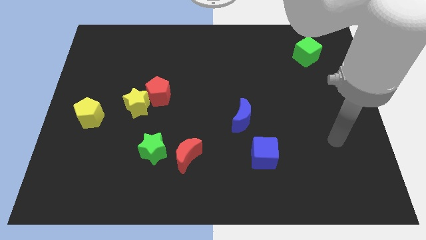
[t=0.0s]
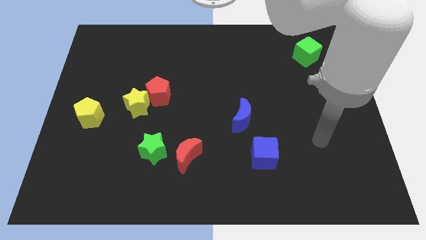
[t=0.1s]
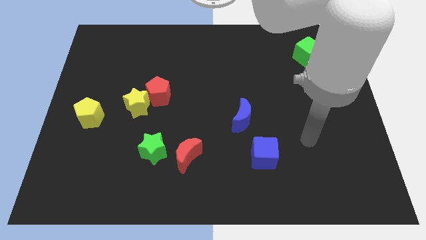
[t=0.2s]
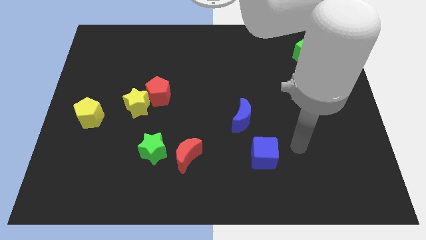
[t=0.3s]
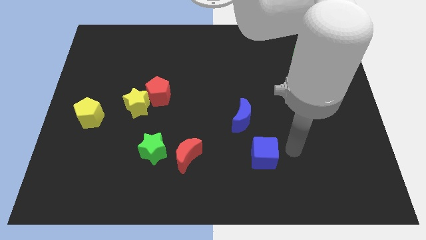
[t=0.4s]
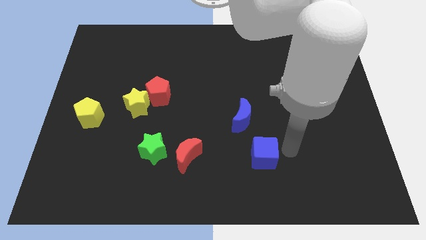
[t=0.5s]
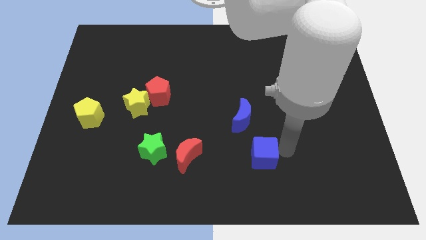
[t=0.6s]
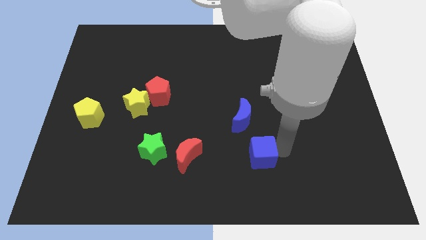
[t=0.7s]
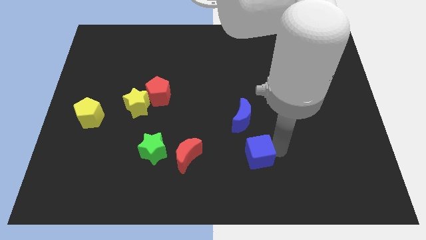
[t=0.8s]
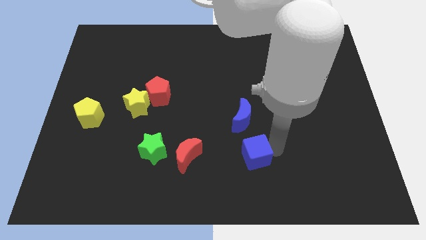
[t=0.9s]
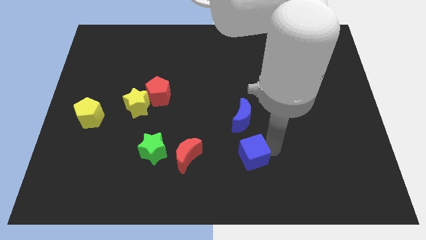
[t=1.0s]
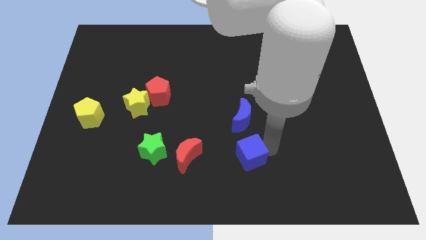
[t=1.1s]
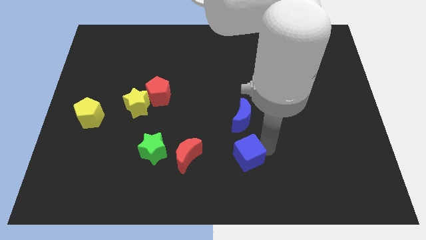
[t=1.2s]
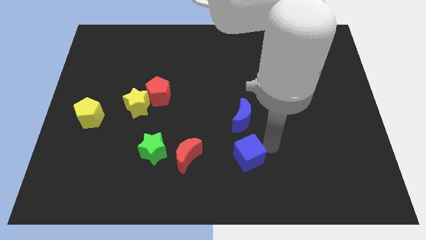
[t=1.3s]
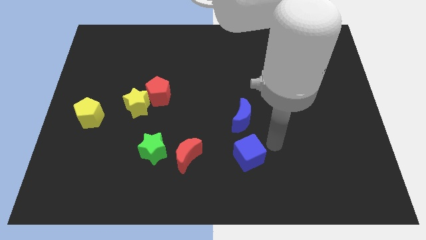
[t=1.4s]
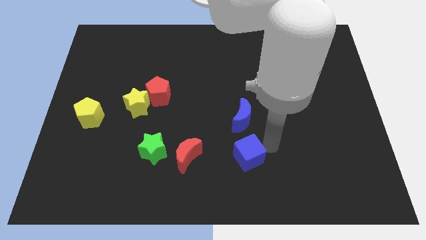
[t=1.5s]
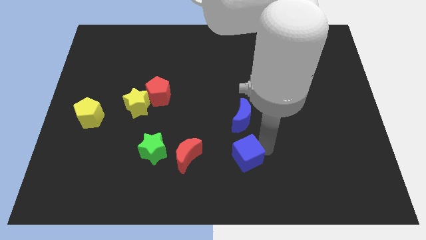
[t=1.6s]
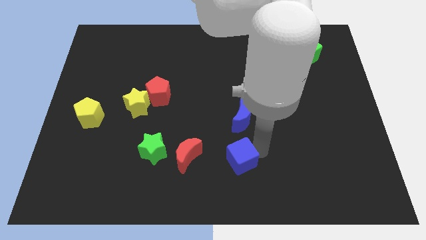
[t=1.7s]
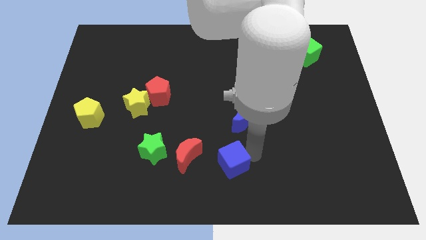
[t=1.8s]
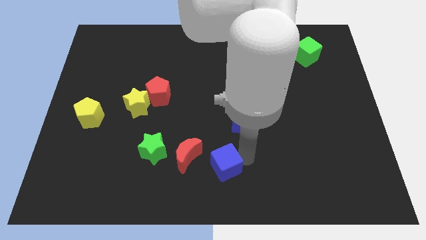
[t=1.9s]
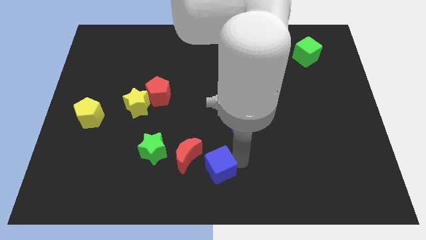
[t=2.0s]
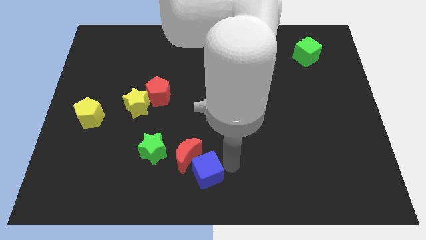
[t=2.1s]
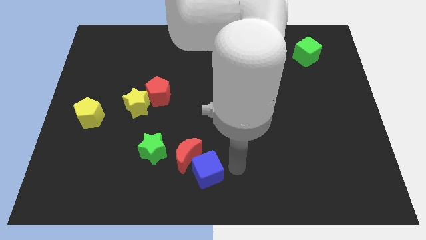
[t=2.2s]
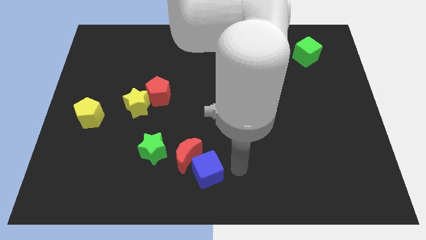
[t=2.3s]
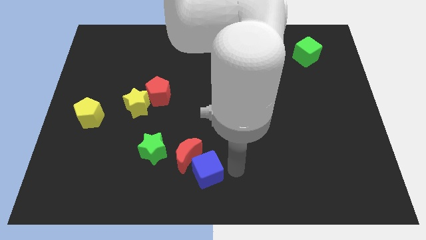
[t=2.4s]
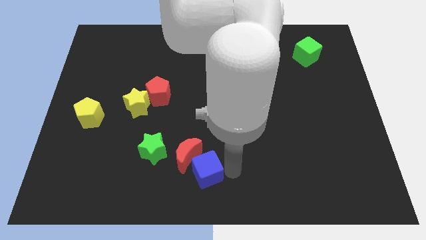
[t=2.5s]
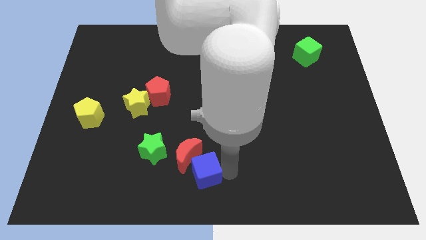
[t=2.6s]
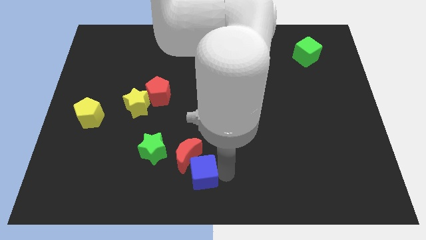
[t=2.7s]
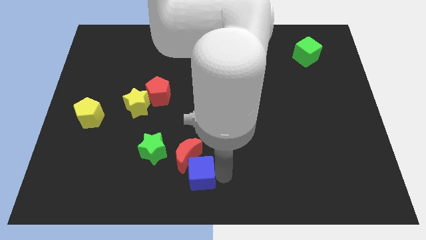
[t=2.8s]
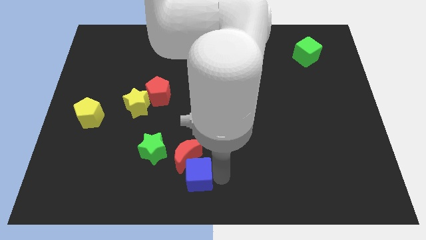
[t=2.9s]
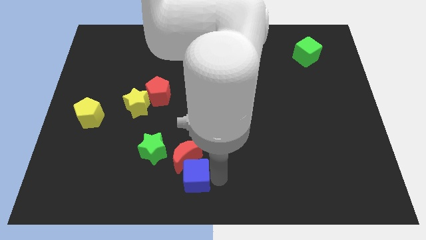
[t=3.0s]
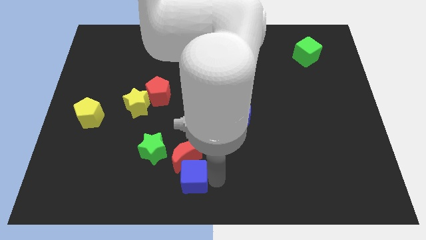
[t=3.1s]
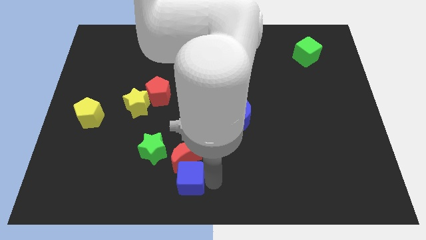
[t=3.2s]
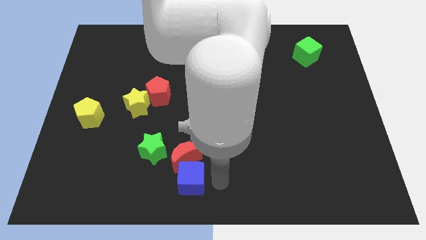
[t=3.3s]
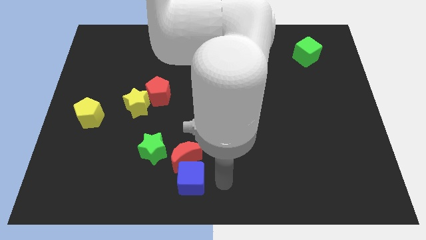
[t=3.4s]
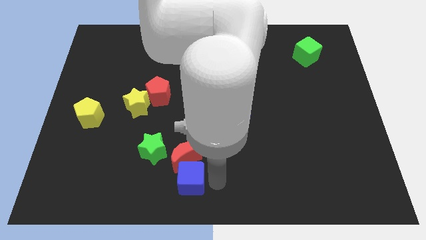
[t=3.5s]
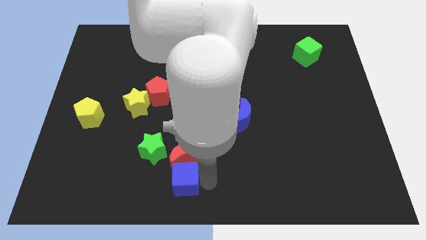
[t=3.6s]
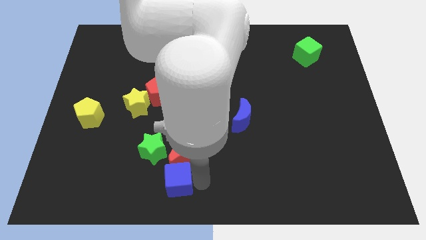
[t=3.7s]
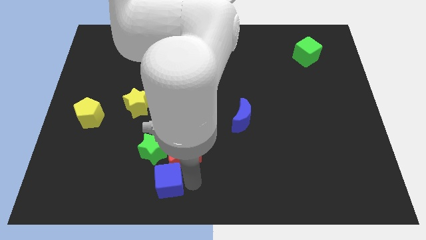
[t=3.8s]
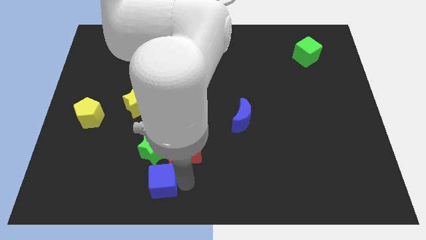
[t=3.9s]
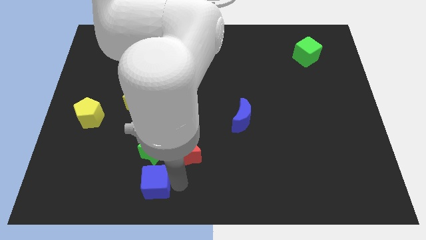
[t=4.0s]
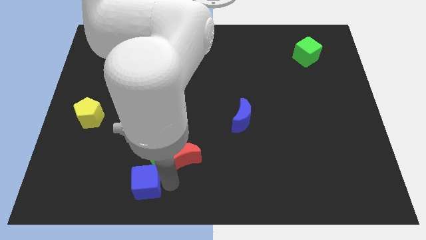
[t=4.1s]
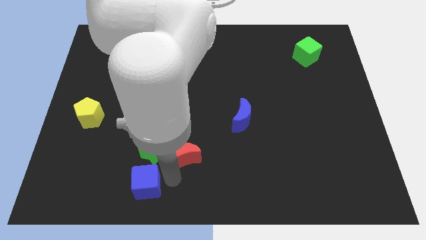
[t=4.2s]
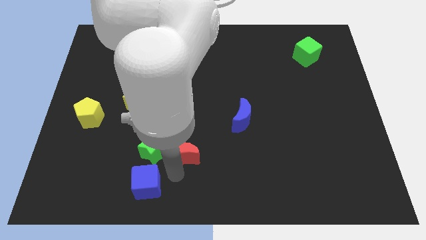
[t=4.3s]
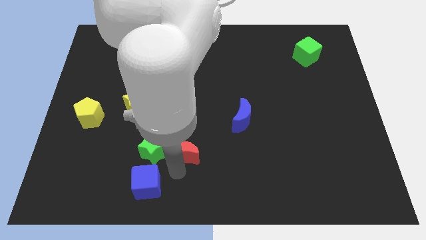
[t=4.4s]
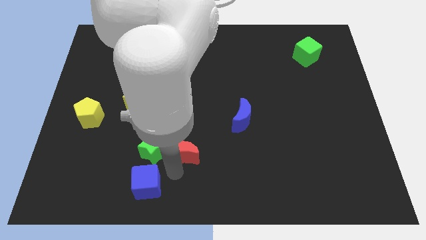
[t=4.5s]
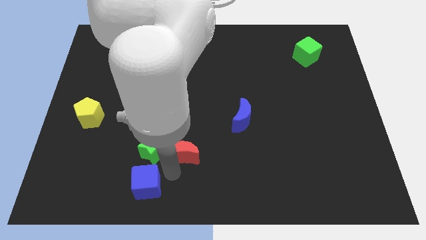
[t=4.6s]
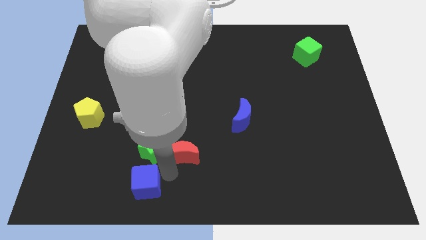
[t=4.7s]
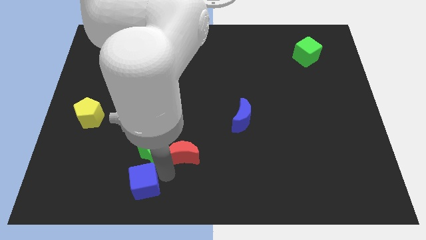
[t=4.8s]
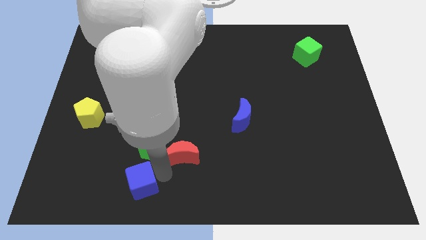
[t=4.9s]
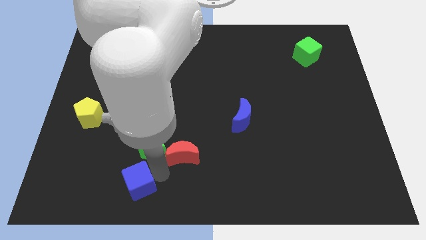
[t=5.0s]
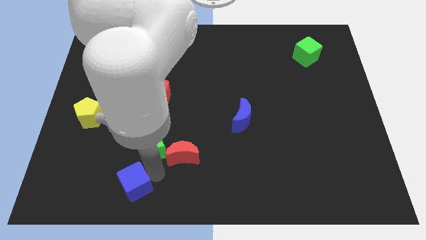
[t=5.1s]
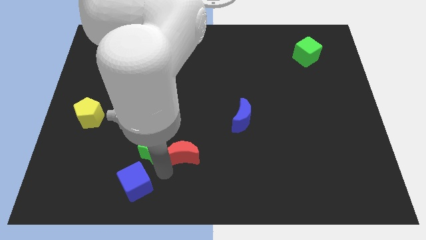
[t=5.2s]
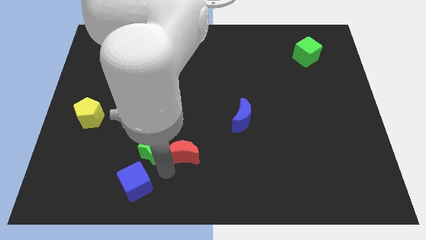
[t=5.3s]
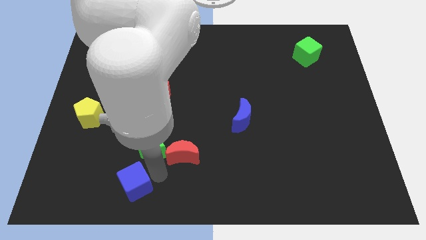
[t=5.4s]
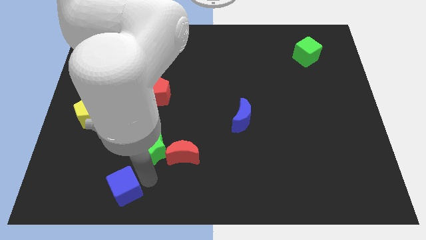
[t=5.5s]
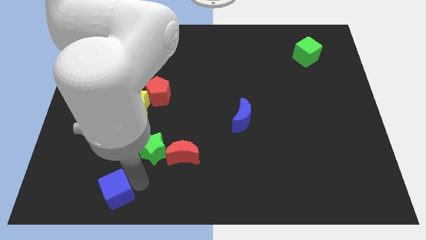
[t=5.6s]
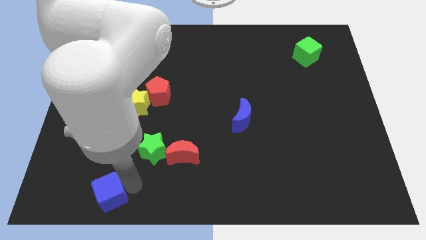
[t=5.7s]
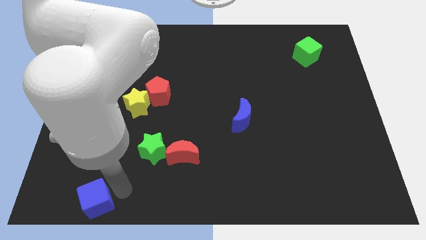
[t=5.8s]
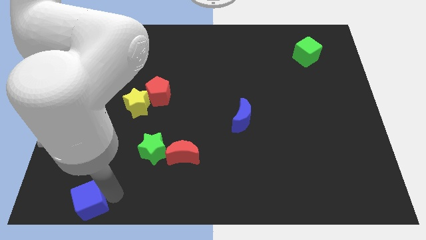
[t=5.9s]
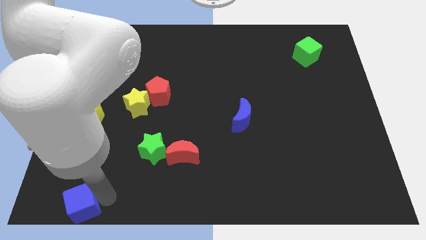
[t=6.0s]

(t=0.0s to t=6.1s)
put the blue cube to the lower left corner

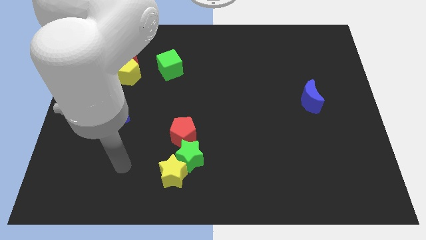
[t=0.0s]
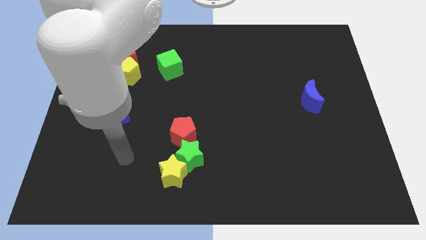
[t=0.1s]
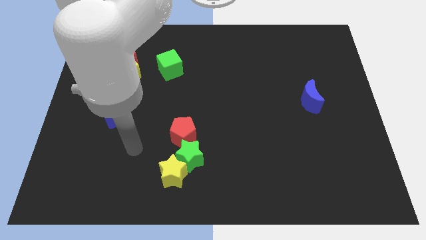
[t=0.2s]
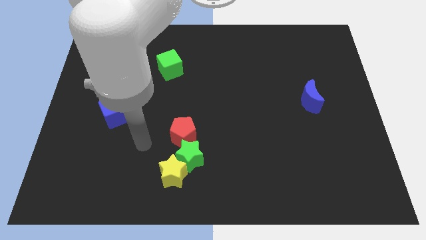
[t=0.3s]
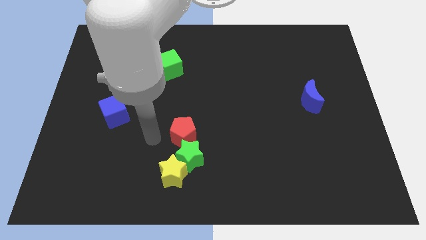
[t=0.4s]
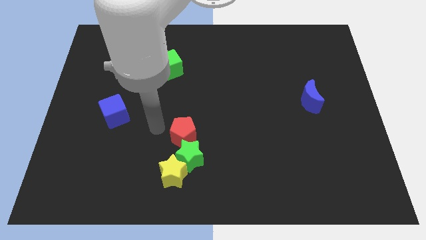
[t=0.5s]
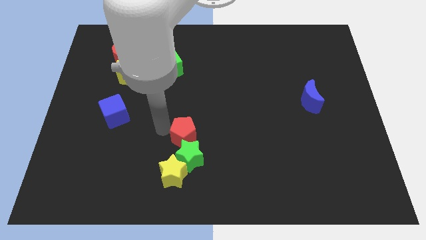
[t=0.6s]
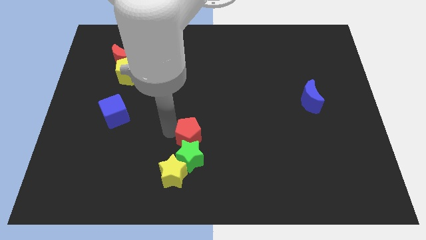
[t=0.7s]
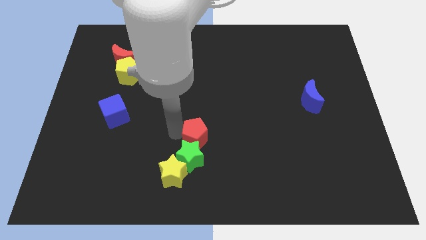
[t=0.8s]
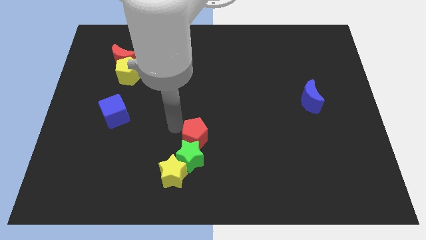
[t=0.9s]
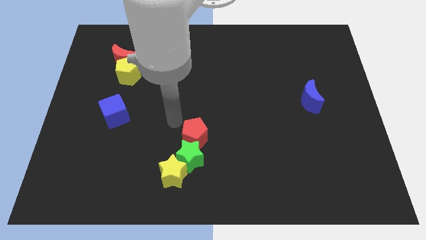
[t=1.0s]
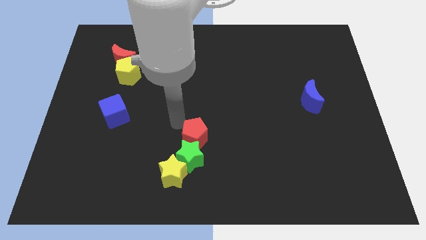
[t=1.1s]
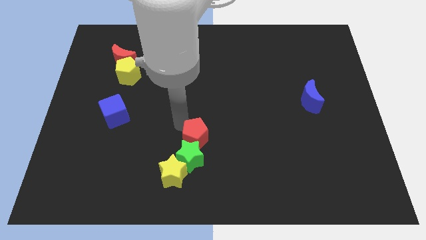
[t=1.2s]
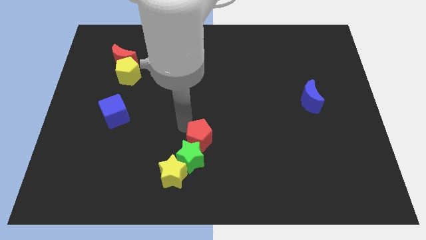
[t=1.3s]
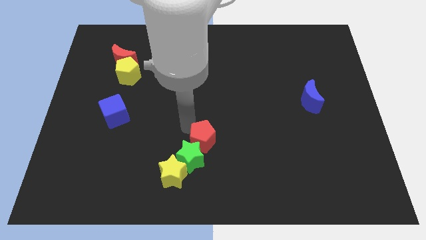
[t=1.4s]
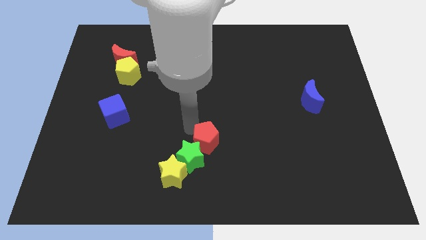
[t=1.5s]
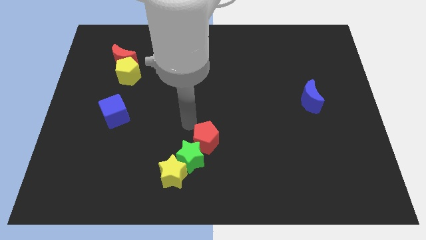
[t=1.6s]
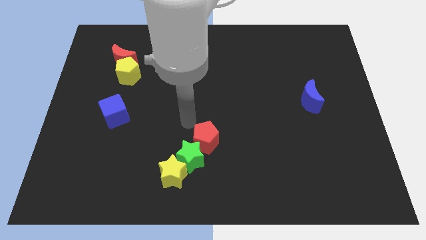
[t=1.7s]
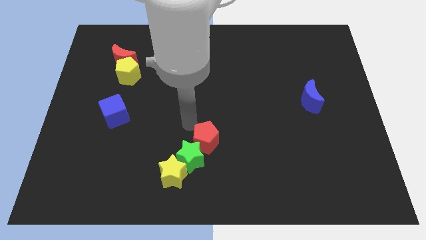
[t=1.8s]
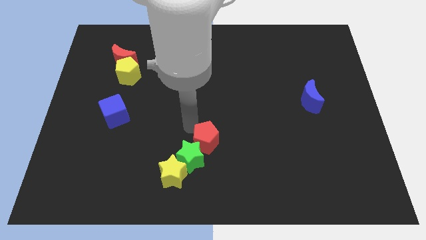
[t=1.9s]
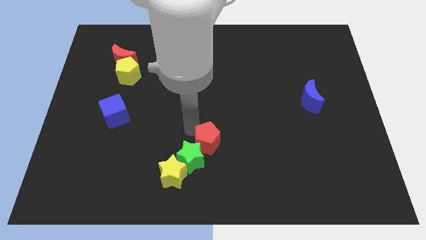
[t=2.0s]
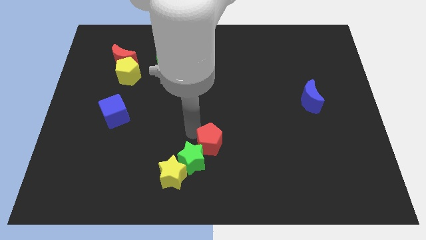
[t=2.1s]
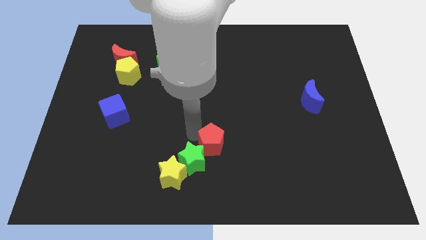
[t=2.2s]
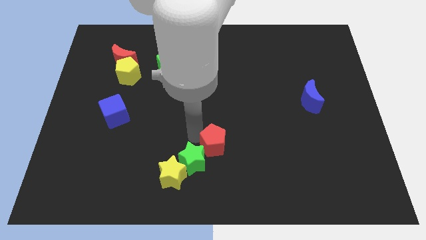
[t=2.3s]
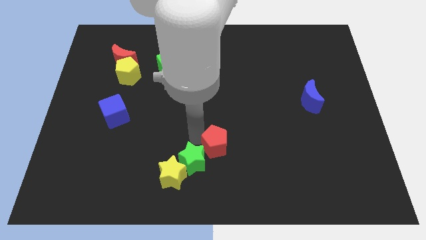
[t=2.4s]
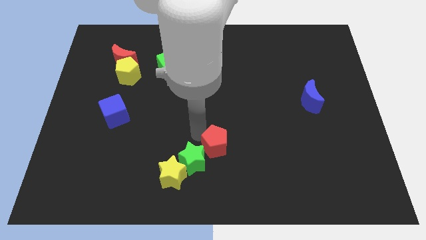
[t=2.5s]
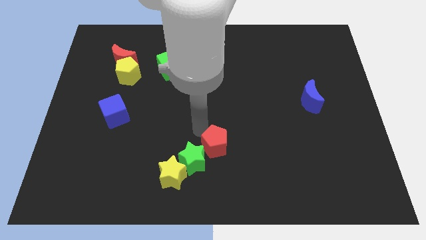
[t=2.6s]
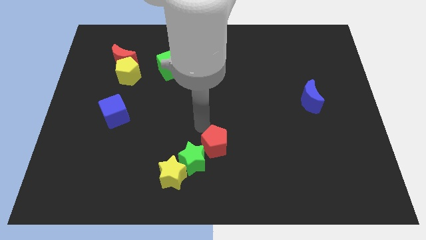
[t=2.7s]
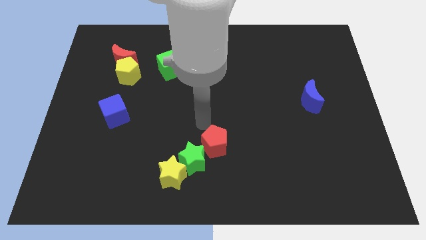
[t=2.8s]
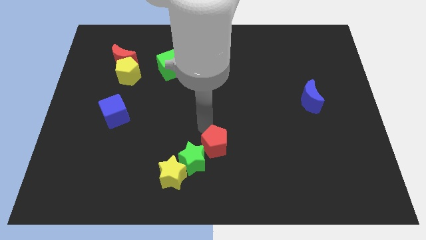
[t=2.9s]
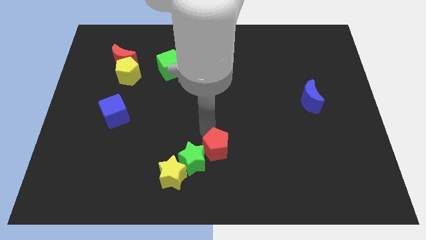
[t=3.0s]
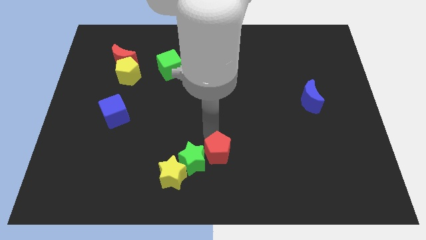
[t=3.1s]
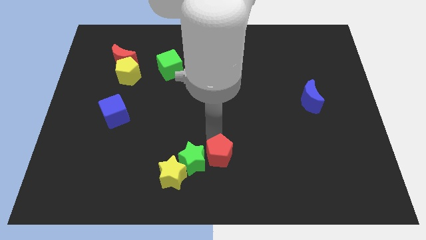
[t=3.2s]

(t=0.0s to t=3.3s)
slide the red pentagon to the bottom side
